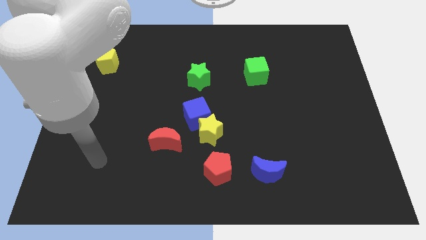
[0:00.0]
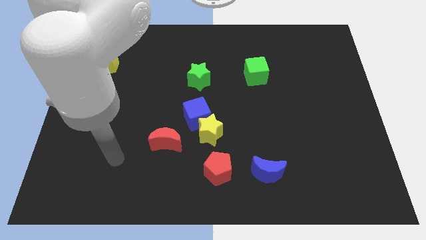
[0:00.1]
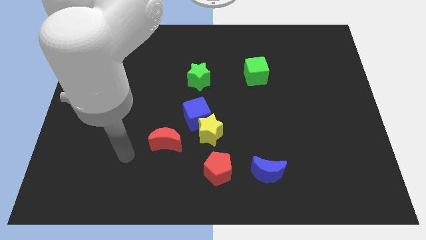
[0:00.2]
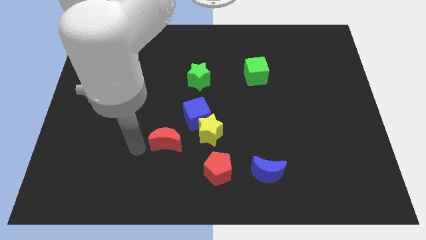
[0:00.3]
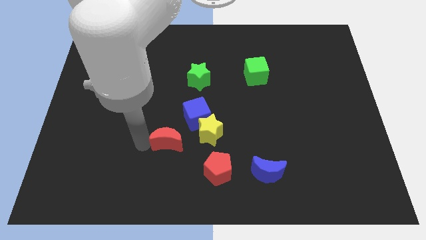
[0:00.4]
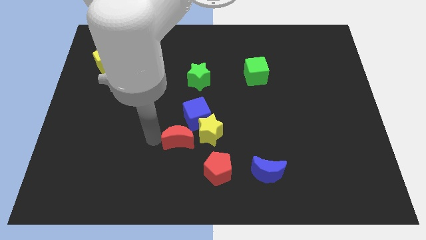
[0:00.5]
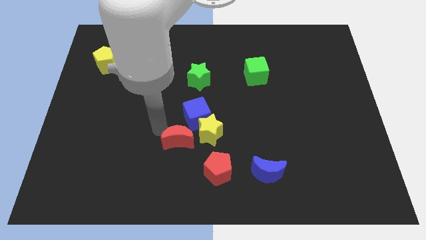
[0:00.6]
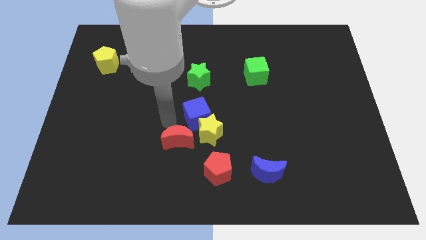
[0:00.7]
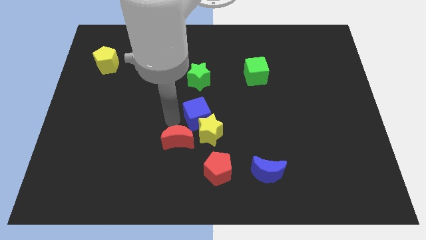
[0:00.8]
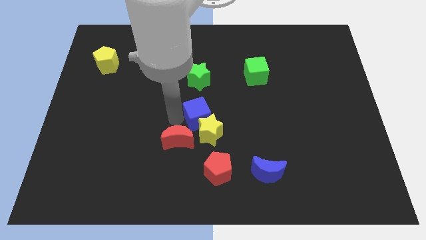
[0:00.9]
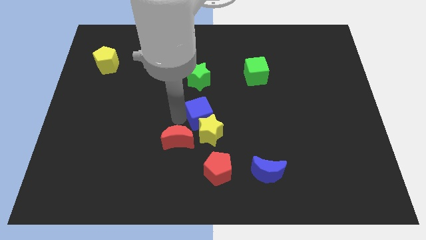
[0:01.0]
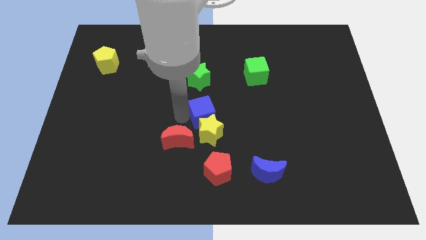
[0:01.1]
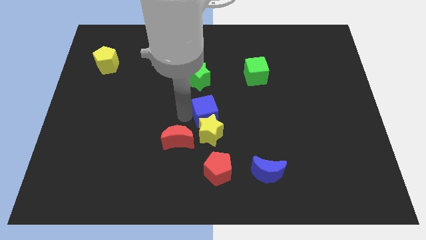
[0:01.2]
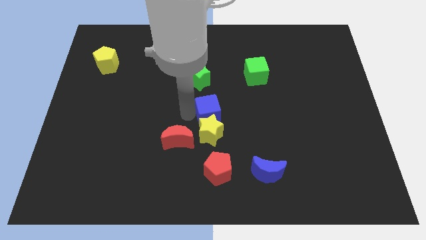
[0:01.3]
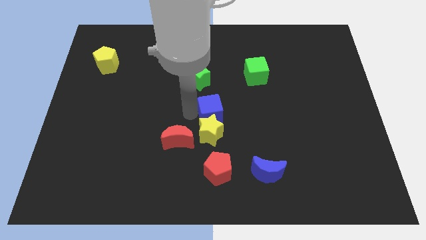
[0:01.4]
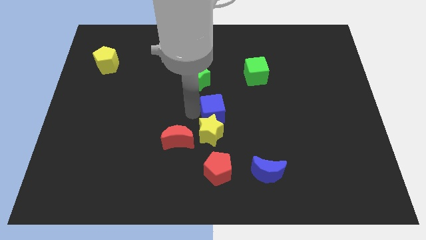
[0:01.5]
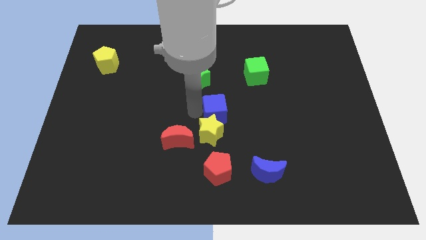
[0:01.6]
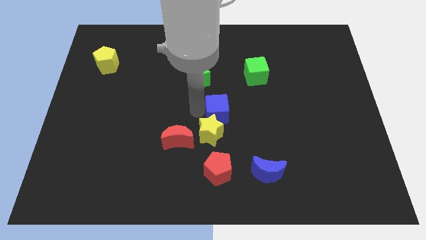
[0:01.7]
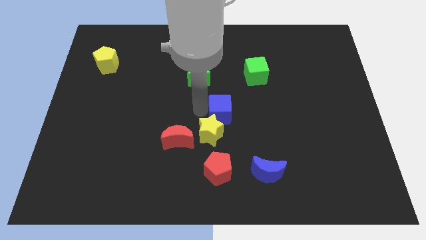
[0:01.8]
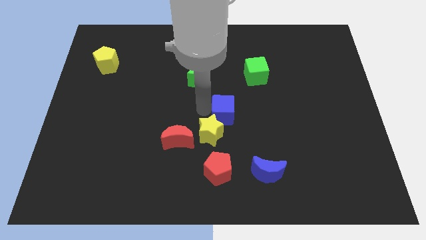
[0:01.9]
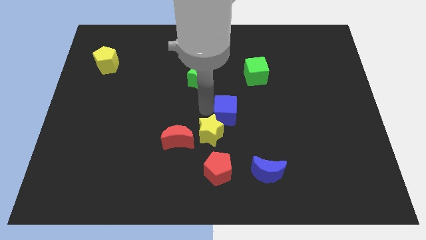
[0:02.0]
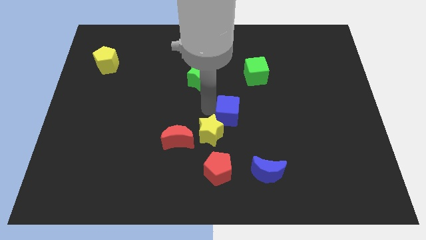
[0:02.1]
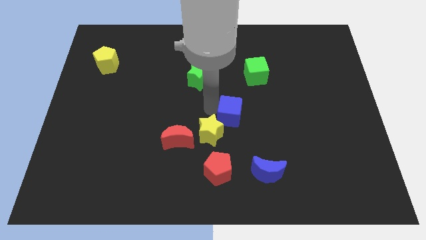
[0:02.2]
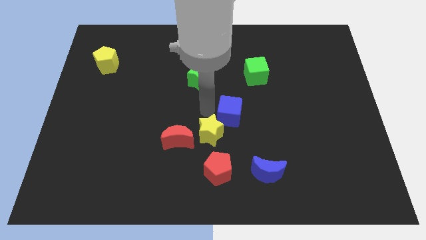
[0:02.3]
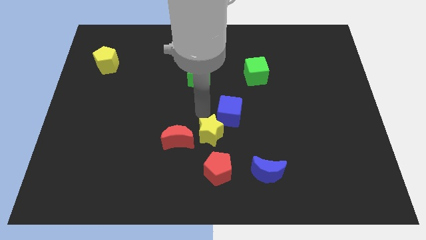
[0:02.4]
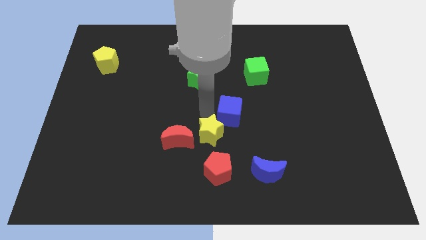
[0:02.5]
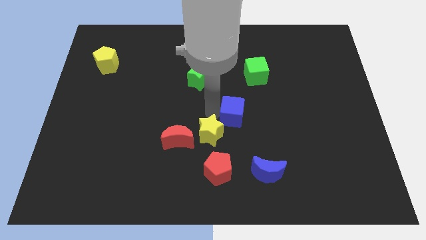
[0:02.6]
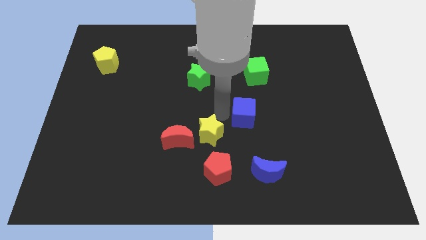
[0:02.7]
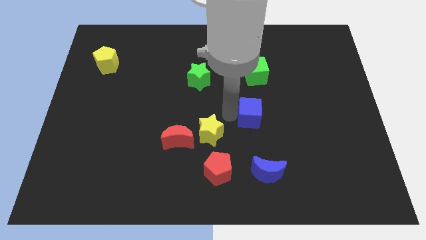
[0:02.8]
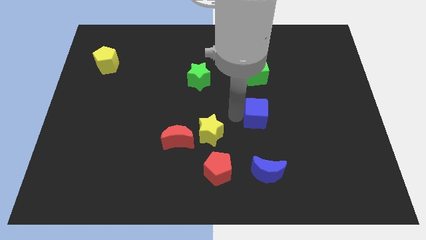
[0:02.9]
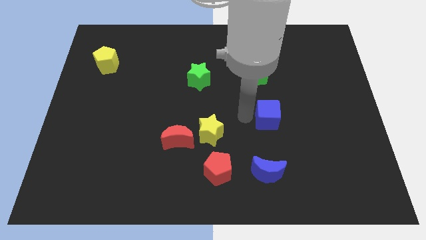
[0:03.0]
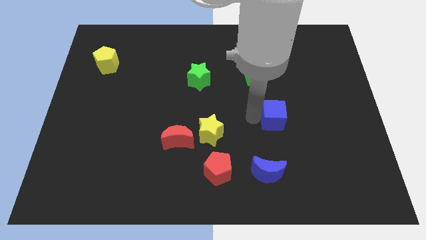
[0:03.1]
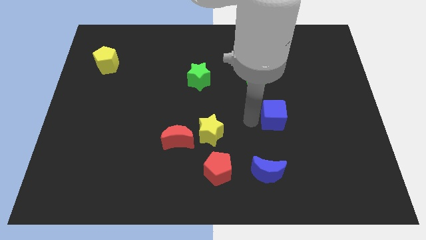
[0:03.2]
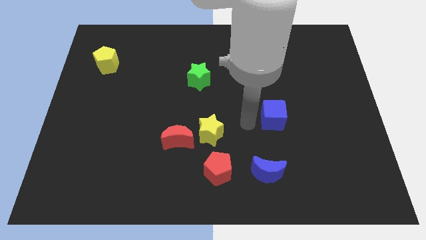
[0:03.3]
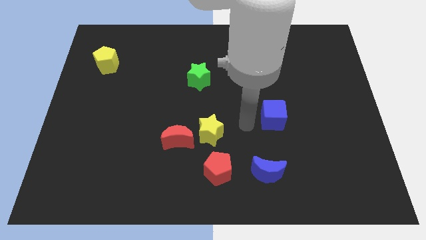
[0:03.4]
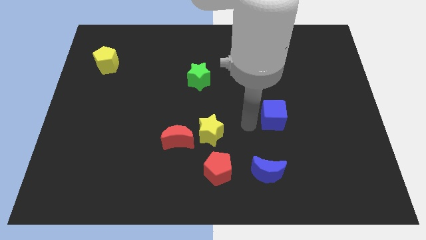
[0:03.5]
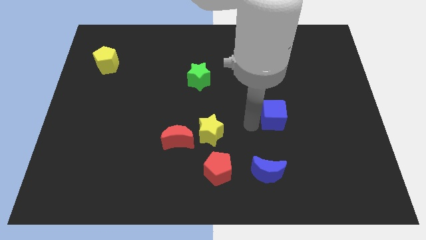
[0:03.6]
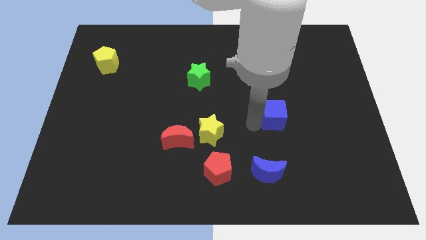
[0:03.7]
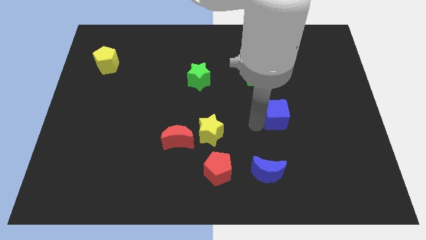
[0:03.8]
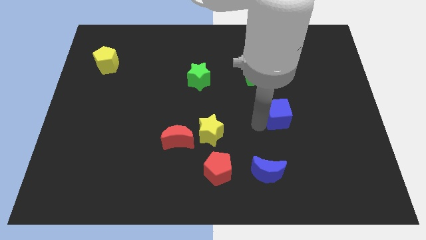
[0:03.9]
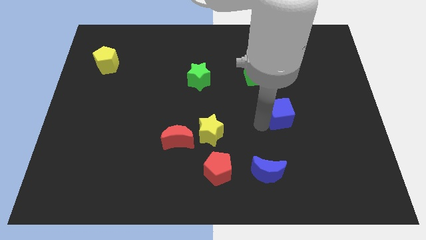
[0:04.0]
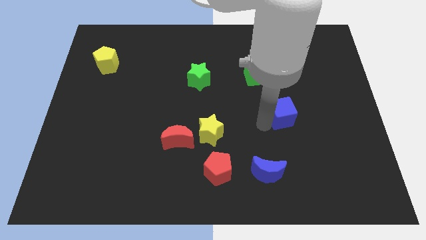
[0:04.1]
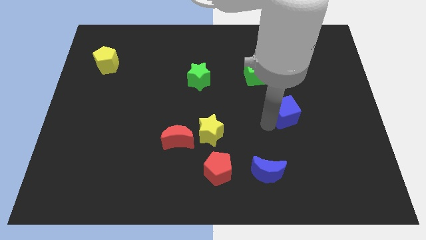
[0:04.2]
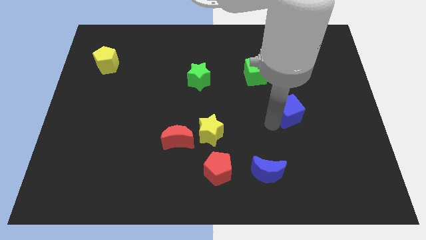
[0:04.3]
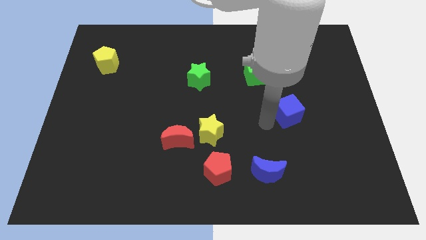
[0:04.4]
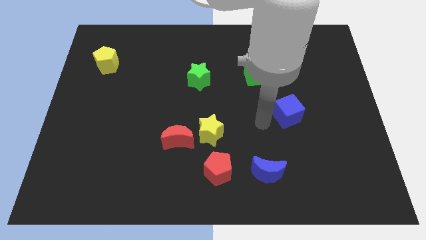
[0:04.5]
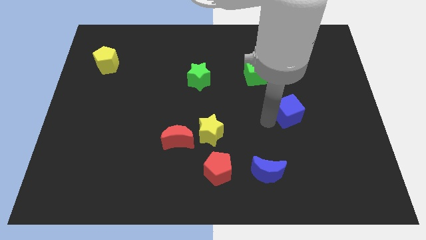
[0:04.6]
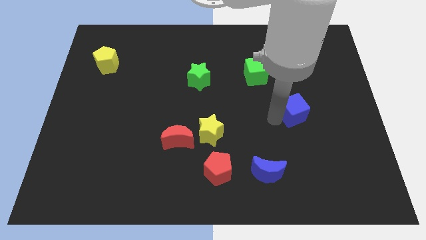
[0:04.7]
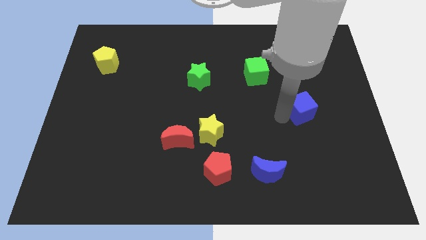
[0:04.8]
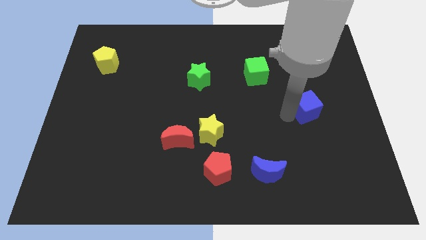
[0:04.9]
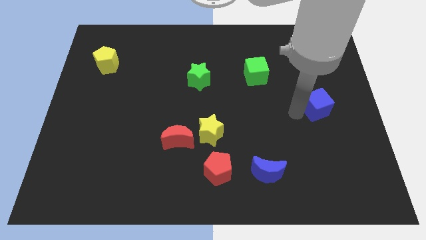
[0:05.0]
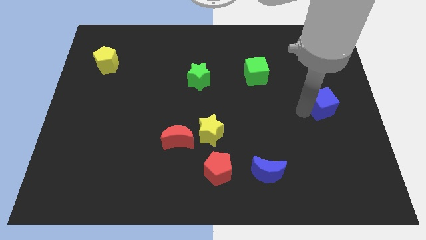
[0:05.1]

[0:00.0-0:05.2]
push the blue cube to the right side

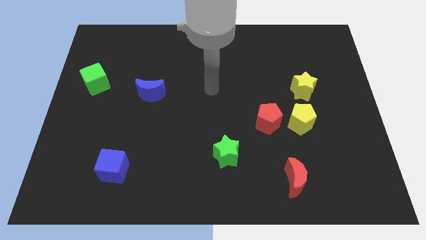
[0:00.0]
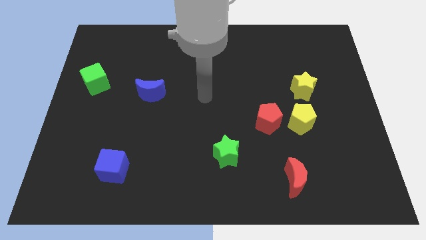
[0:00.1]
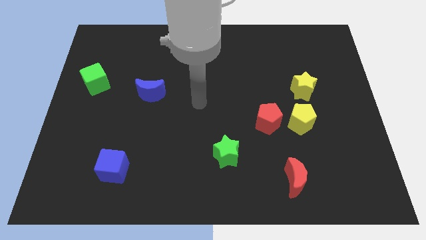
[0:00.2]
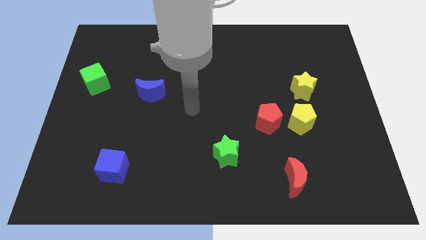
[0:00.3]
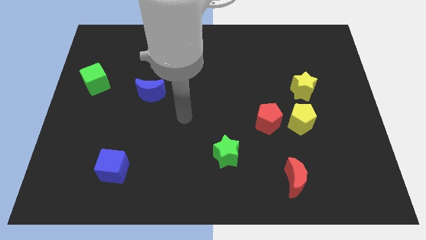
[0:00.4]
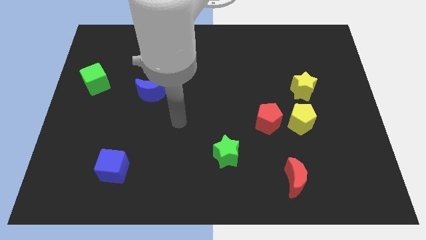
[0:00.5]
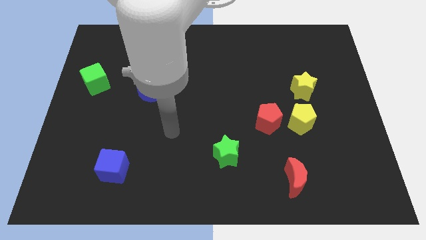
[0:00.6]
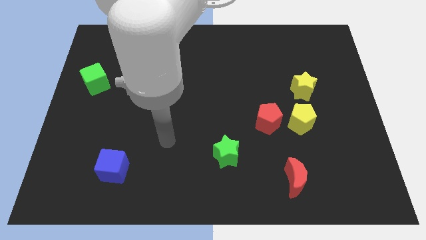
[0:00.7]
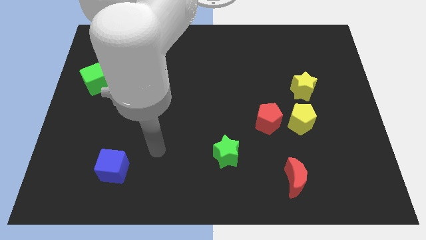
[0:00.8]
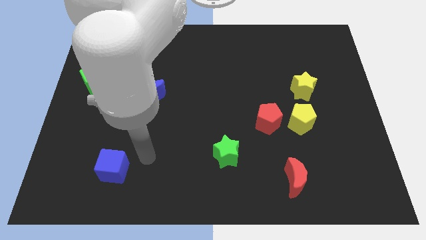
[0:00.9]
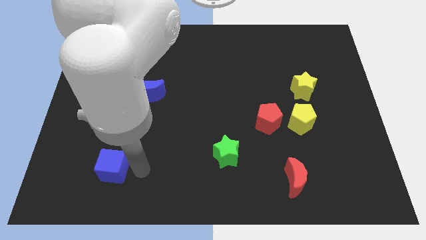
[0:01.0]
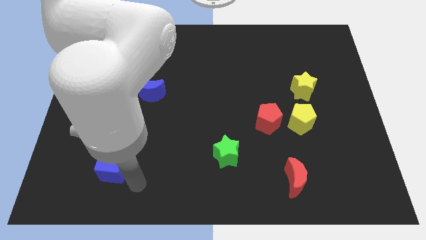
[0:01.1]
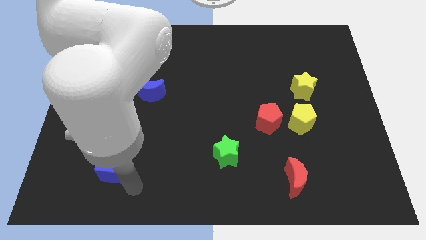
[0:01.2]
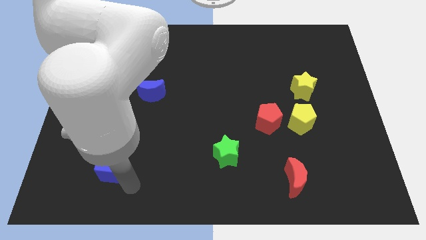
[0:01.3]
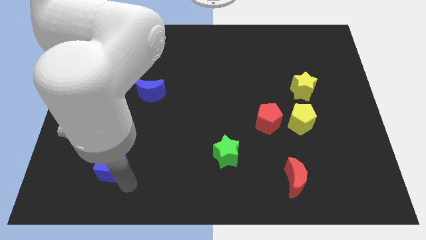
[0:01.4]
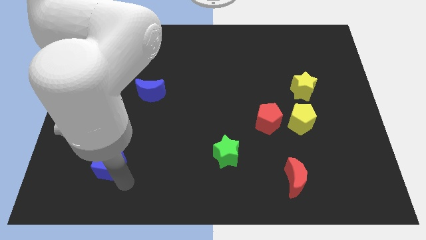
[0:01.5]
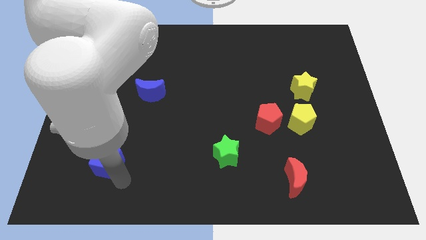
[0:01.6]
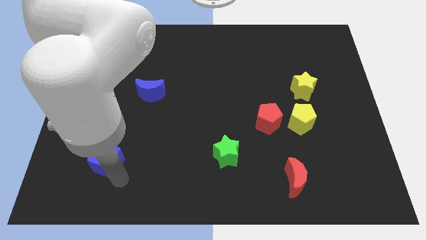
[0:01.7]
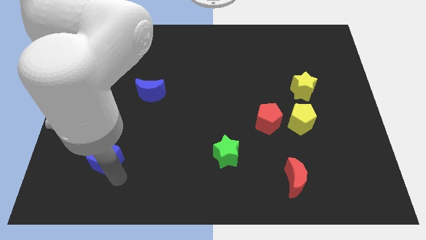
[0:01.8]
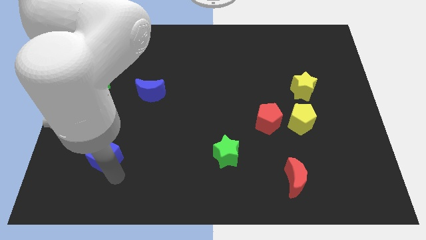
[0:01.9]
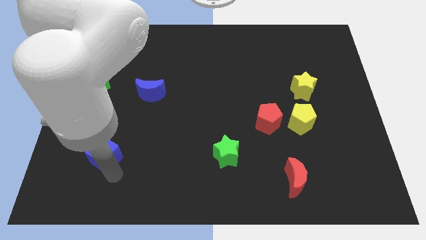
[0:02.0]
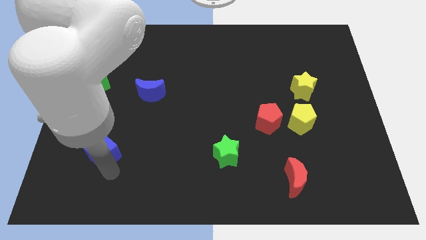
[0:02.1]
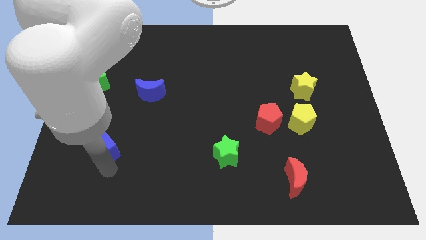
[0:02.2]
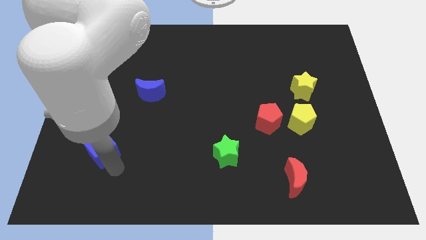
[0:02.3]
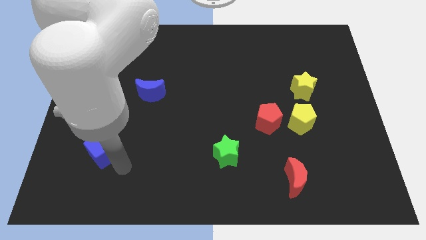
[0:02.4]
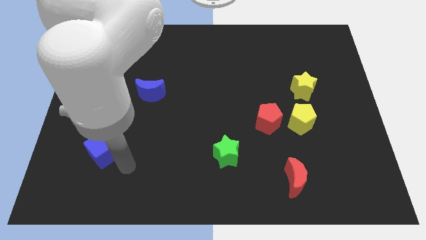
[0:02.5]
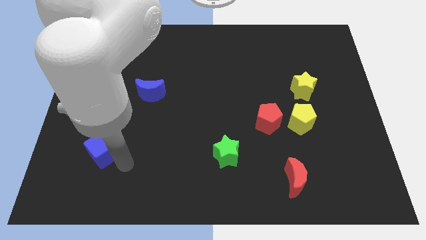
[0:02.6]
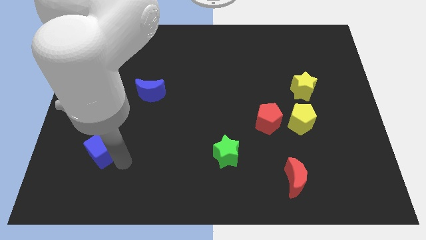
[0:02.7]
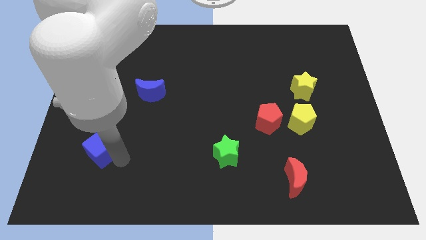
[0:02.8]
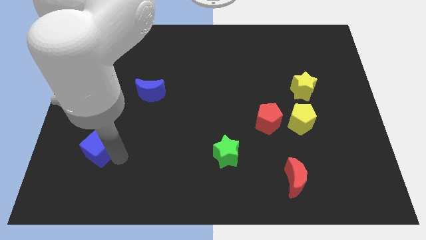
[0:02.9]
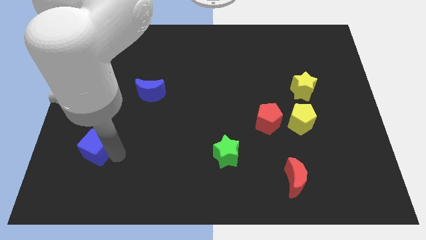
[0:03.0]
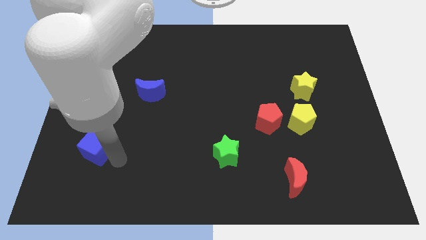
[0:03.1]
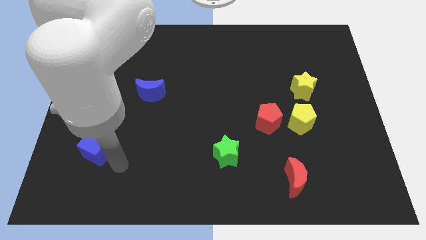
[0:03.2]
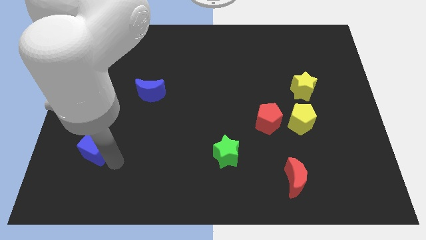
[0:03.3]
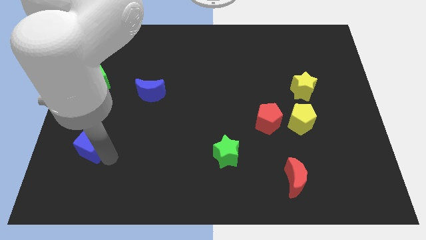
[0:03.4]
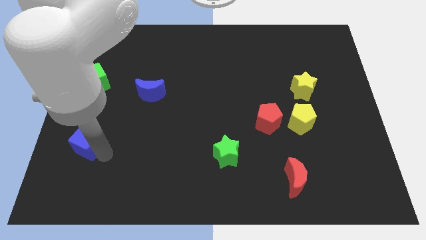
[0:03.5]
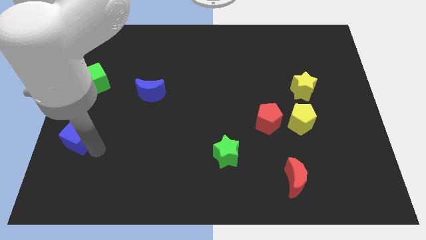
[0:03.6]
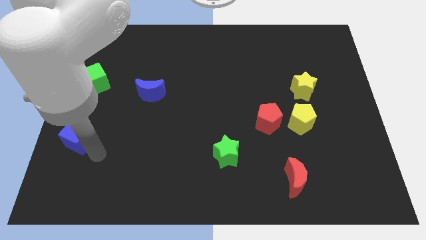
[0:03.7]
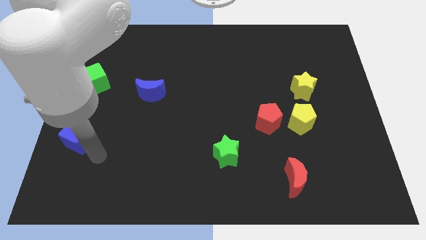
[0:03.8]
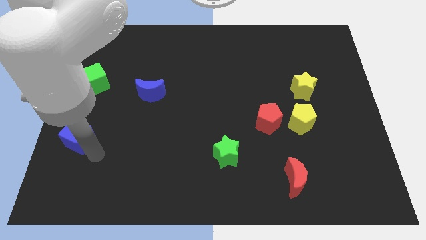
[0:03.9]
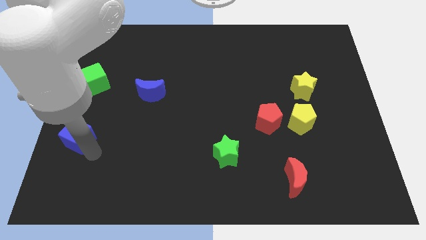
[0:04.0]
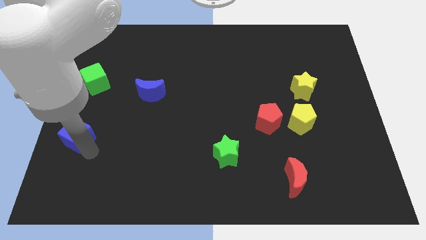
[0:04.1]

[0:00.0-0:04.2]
put the blue cube to the left side
